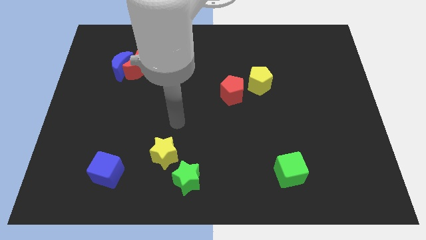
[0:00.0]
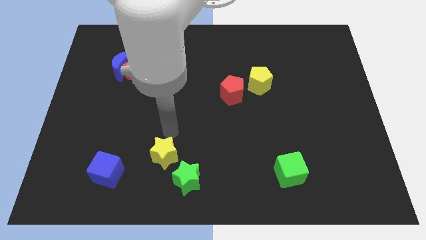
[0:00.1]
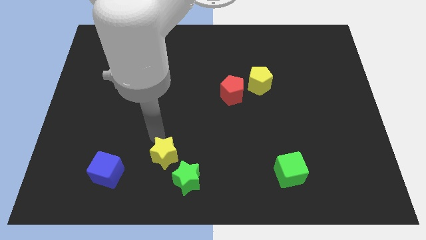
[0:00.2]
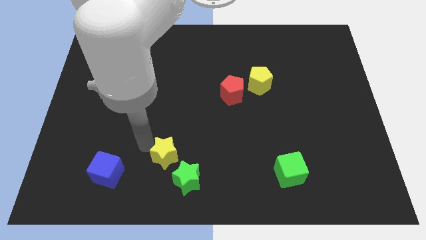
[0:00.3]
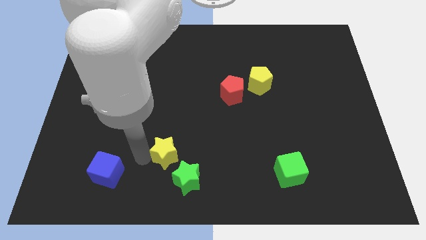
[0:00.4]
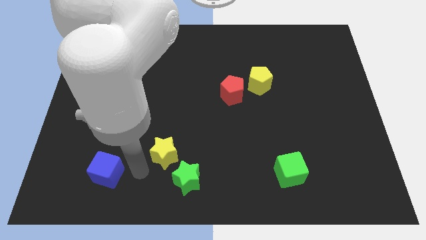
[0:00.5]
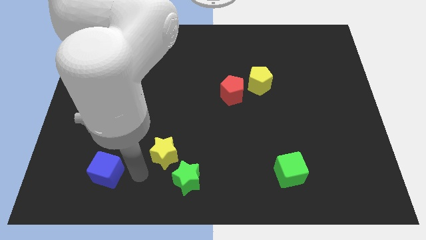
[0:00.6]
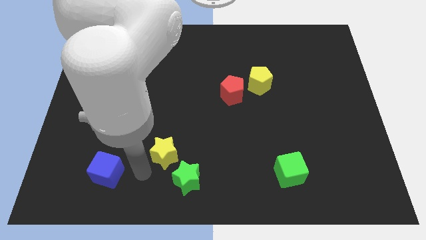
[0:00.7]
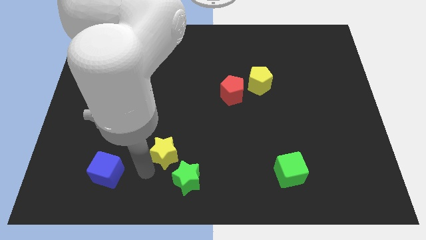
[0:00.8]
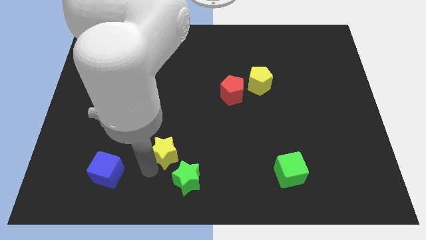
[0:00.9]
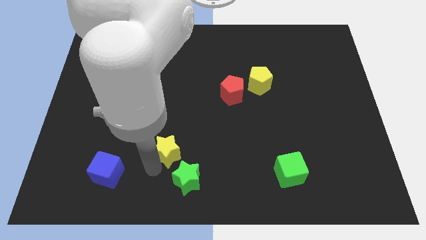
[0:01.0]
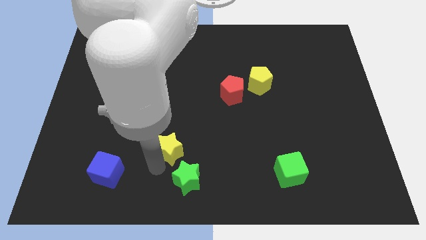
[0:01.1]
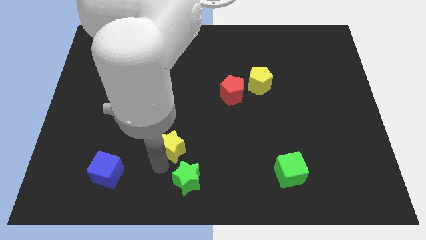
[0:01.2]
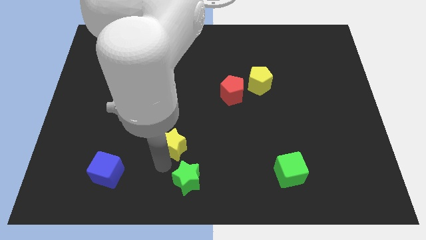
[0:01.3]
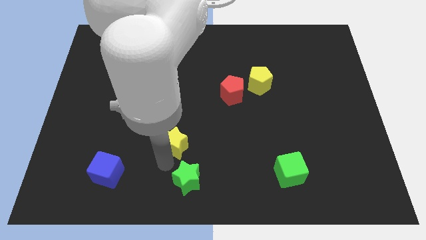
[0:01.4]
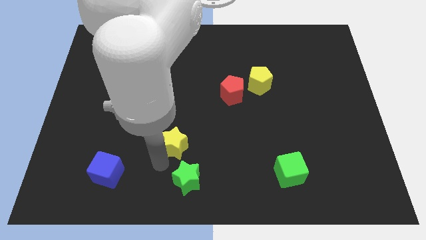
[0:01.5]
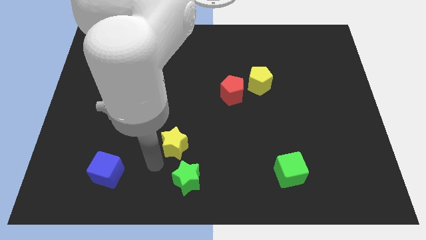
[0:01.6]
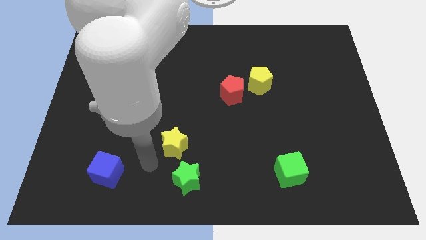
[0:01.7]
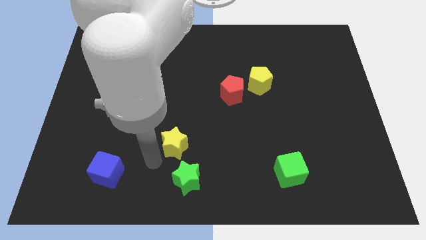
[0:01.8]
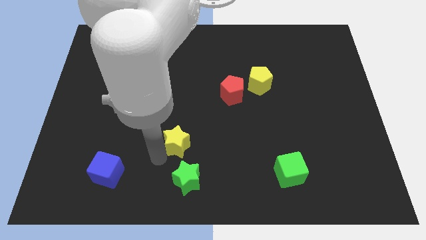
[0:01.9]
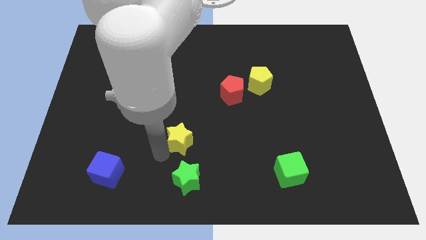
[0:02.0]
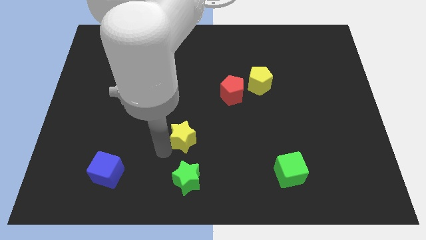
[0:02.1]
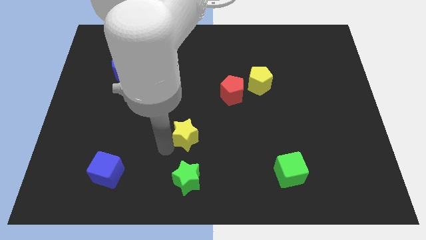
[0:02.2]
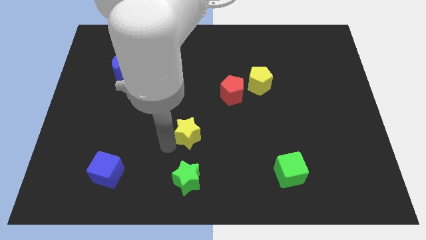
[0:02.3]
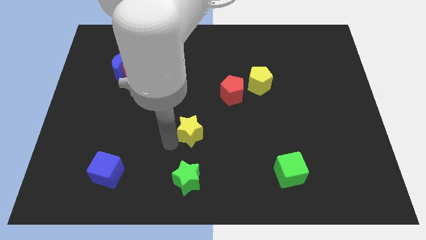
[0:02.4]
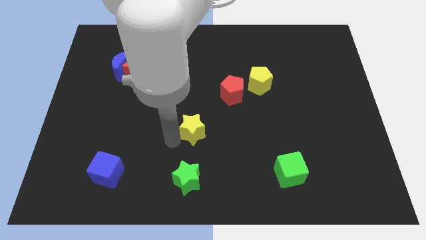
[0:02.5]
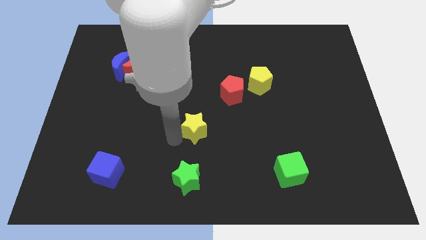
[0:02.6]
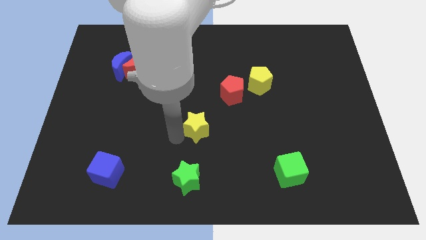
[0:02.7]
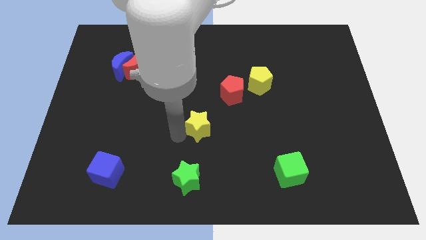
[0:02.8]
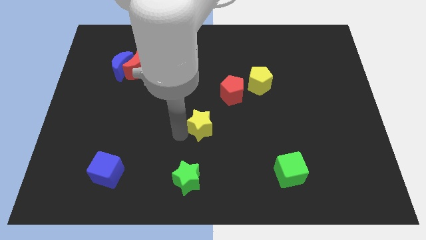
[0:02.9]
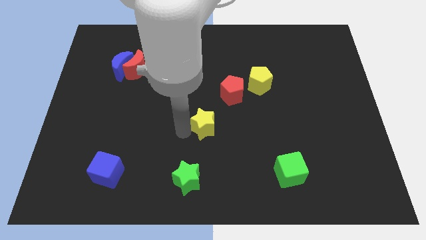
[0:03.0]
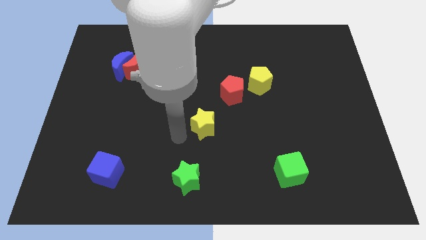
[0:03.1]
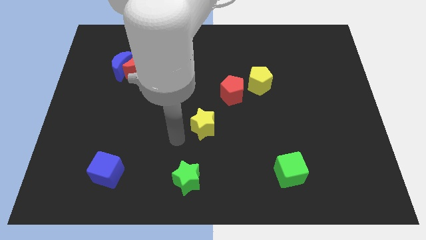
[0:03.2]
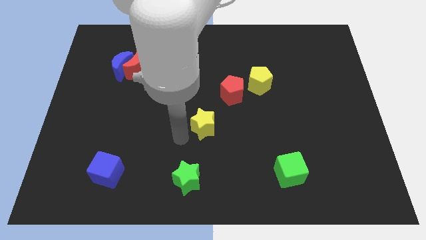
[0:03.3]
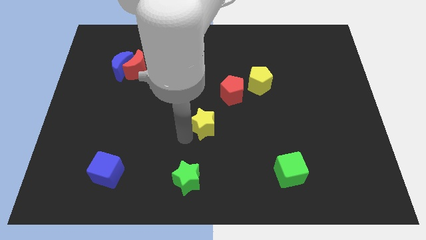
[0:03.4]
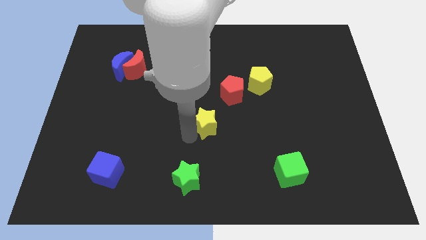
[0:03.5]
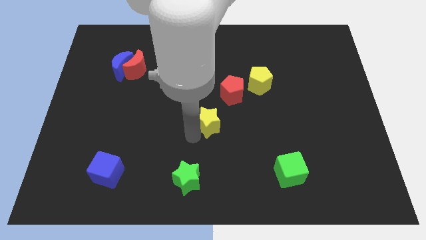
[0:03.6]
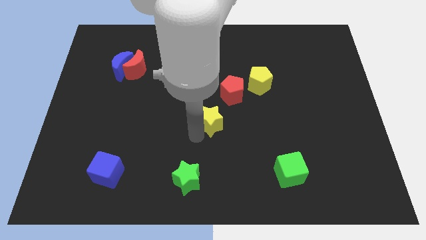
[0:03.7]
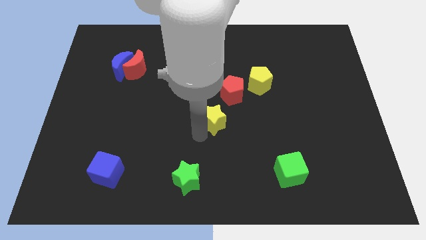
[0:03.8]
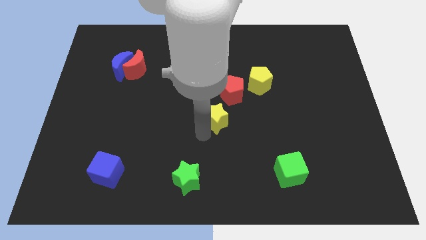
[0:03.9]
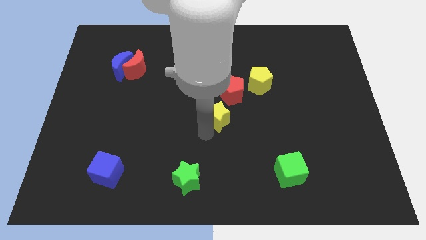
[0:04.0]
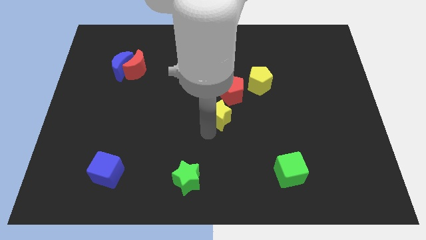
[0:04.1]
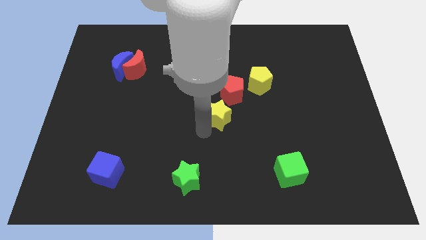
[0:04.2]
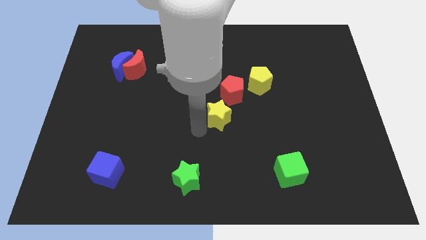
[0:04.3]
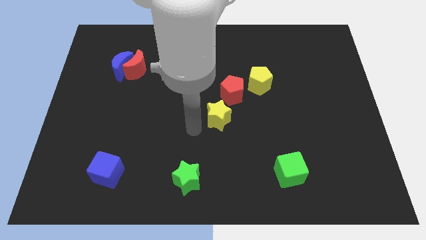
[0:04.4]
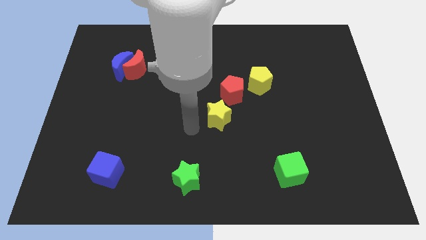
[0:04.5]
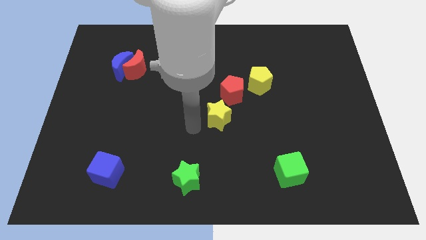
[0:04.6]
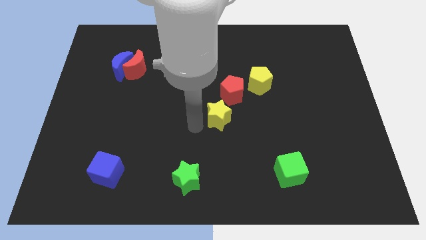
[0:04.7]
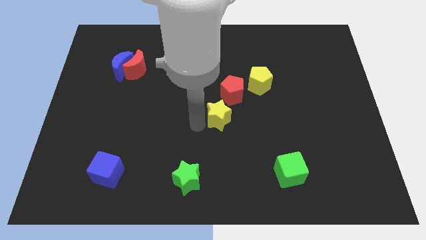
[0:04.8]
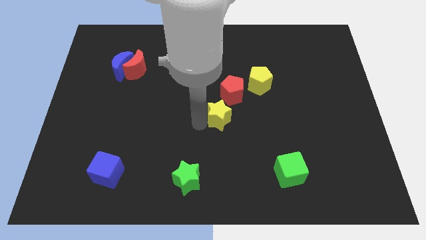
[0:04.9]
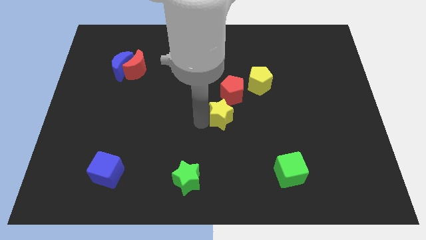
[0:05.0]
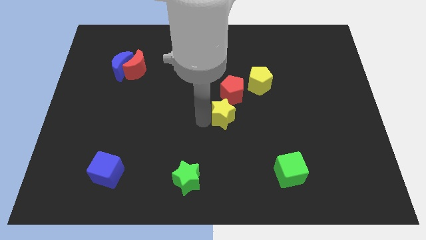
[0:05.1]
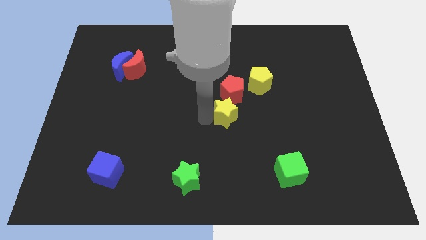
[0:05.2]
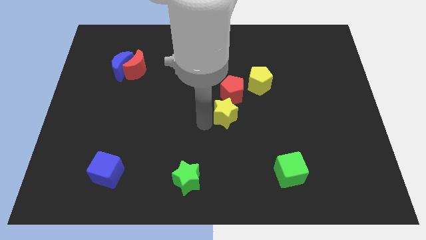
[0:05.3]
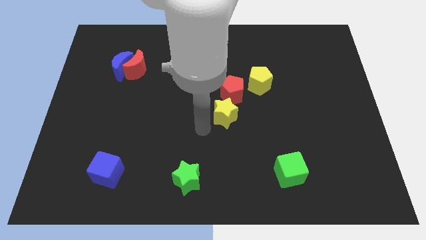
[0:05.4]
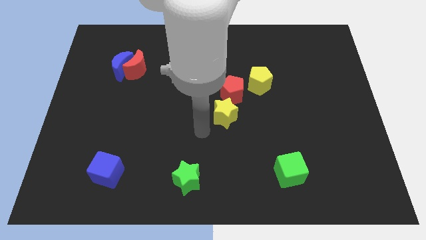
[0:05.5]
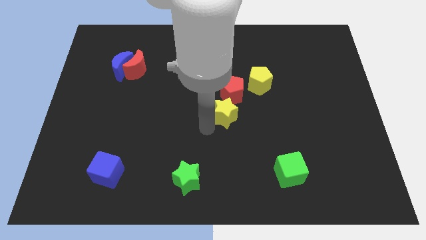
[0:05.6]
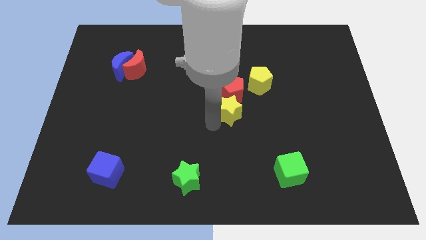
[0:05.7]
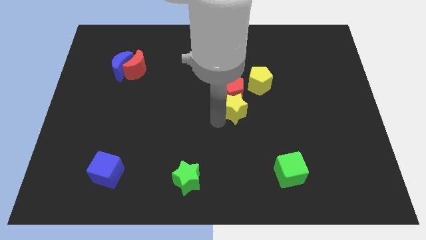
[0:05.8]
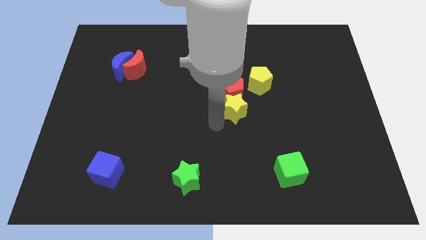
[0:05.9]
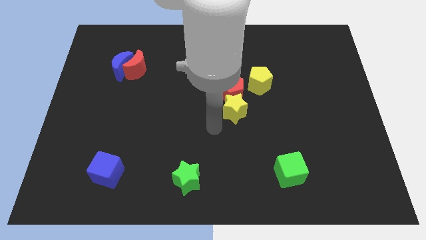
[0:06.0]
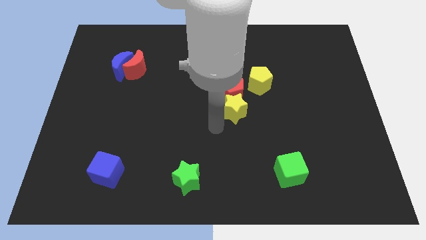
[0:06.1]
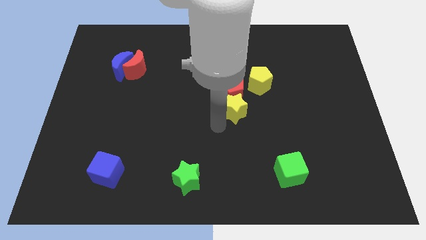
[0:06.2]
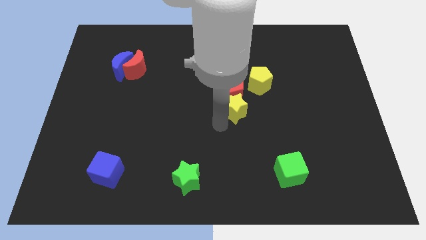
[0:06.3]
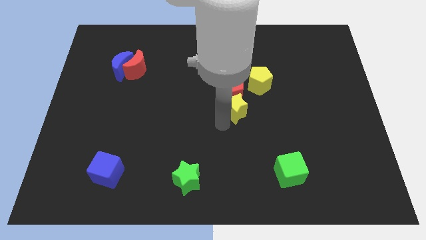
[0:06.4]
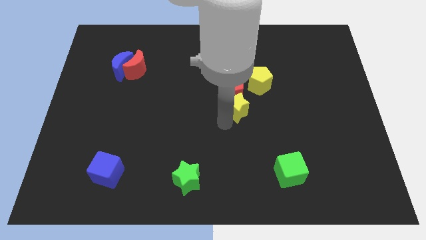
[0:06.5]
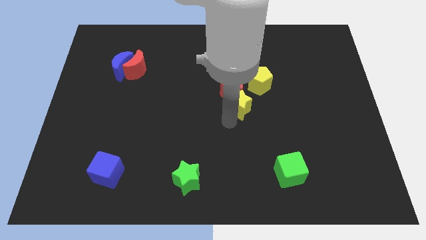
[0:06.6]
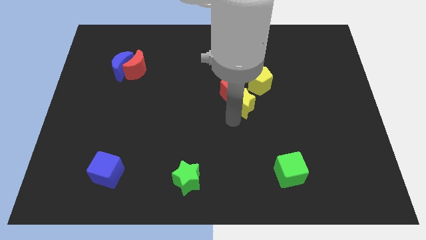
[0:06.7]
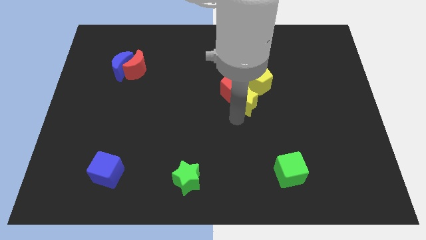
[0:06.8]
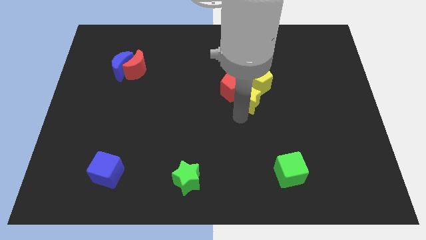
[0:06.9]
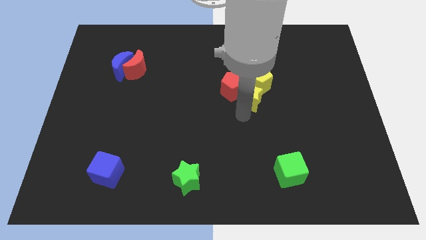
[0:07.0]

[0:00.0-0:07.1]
put the yellow star next to the yellow pentagon
